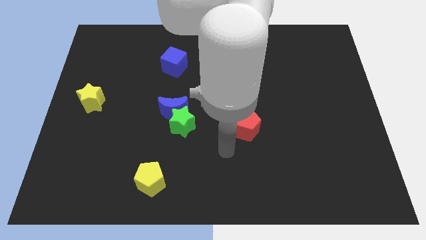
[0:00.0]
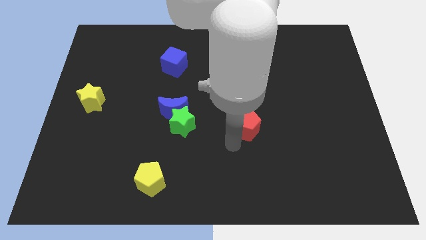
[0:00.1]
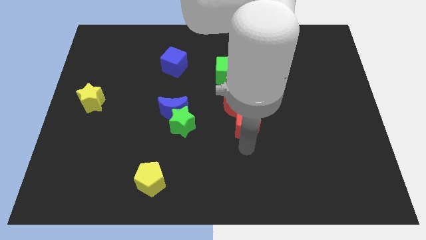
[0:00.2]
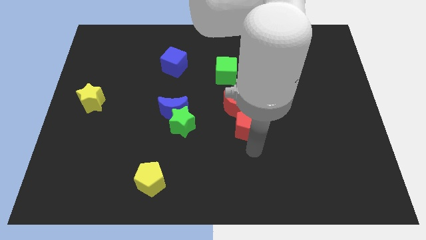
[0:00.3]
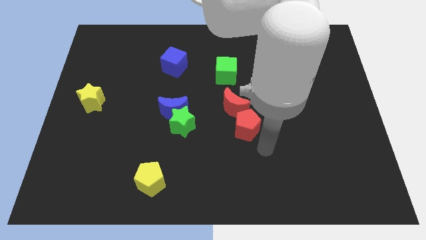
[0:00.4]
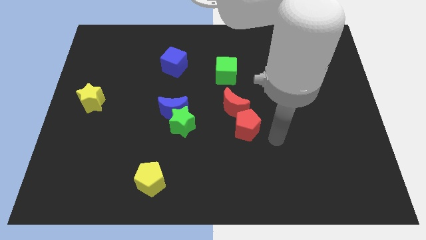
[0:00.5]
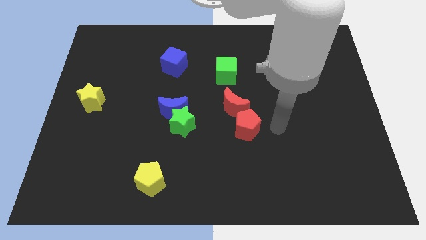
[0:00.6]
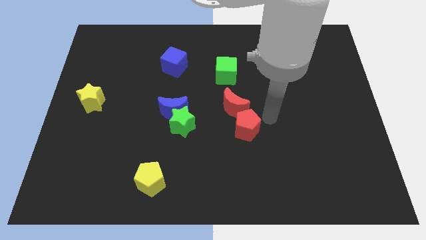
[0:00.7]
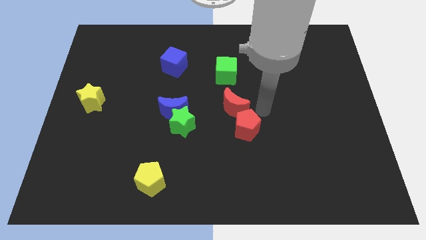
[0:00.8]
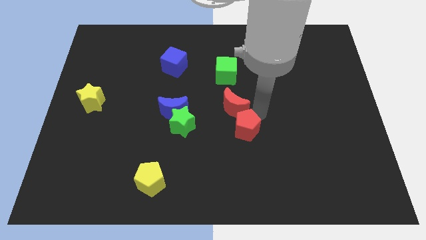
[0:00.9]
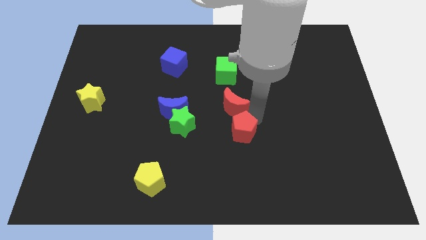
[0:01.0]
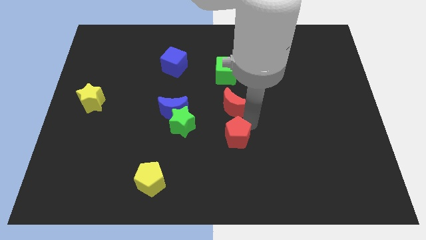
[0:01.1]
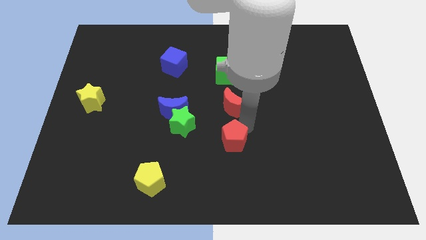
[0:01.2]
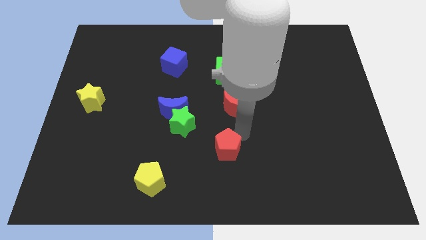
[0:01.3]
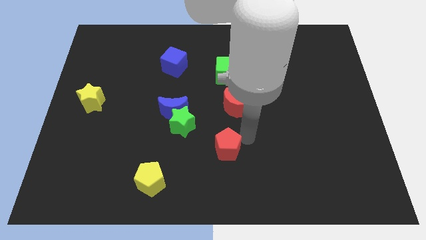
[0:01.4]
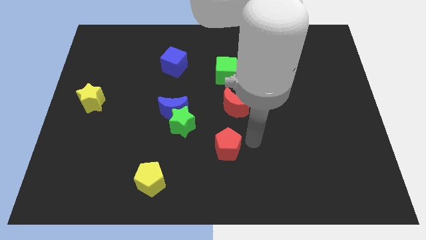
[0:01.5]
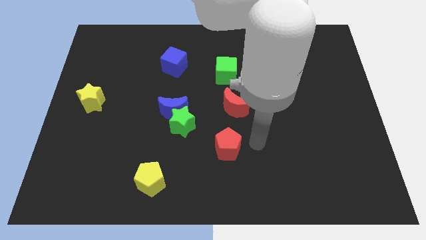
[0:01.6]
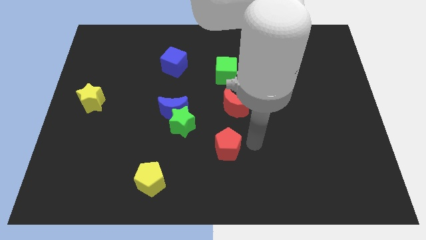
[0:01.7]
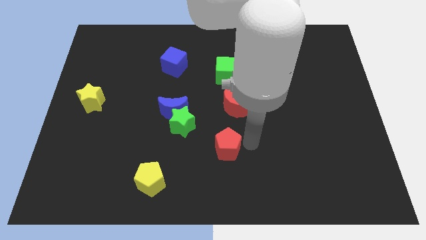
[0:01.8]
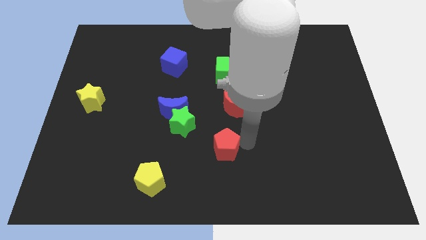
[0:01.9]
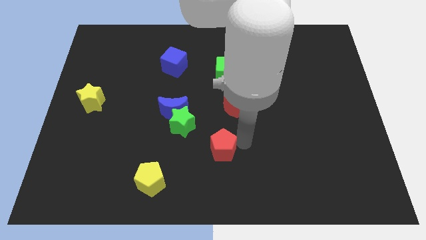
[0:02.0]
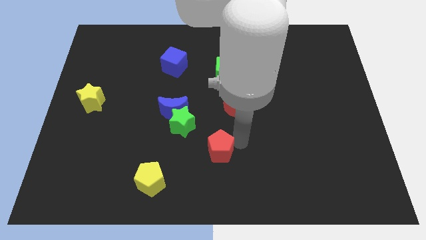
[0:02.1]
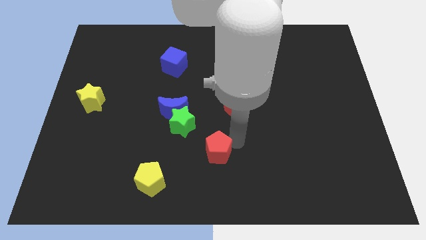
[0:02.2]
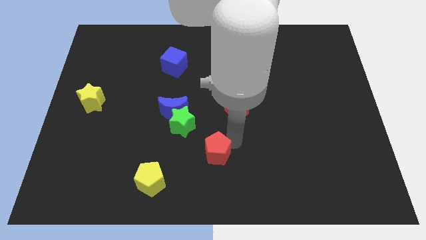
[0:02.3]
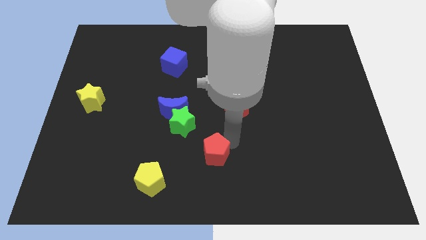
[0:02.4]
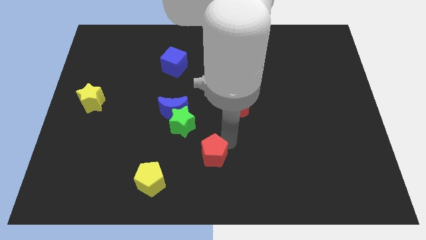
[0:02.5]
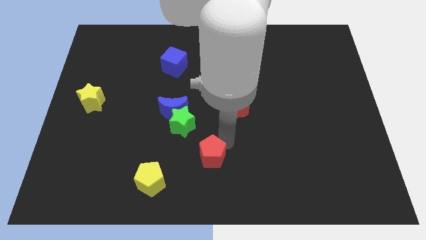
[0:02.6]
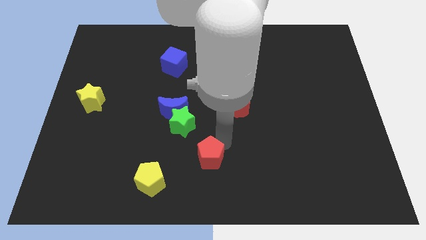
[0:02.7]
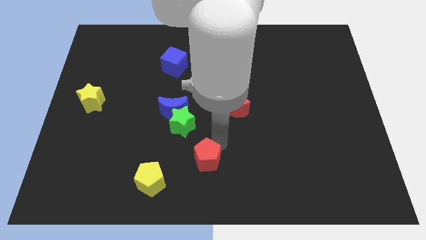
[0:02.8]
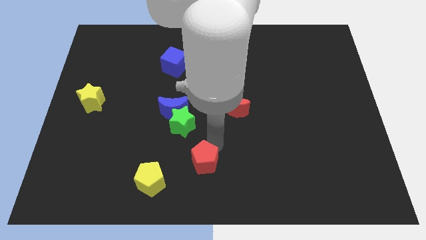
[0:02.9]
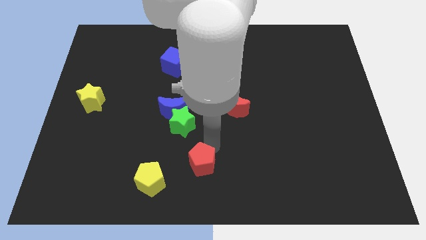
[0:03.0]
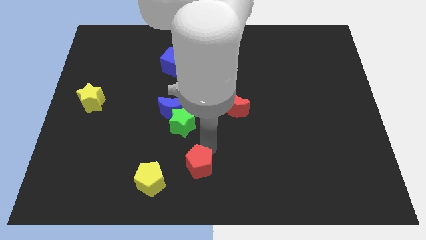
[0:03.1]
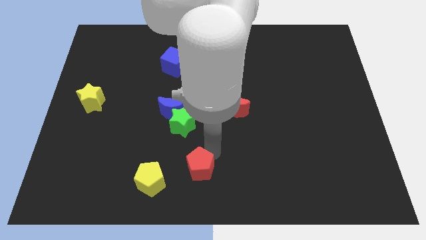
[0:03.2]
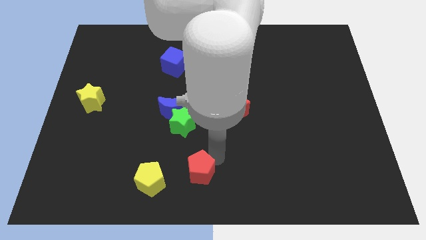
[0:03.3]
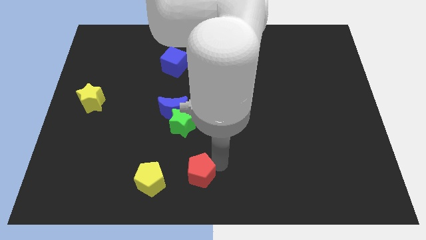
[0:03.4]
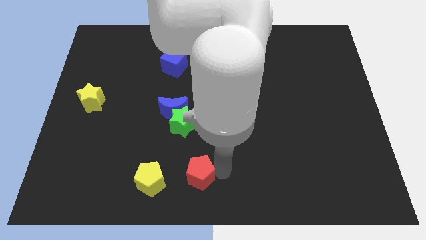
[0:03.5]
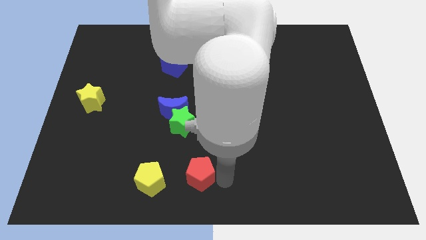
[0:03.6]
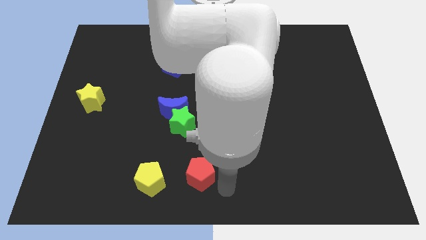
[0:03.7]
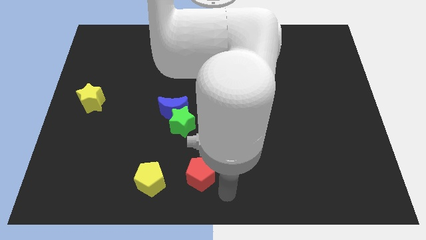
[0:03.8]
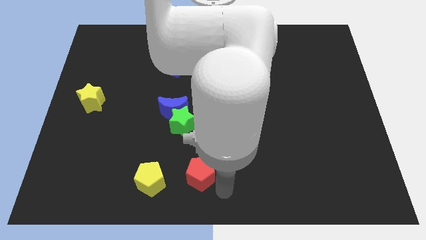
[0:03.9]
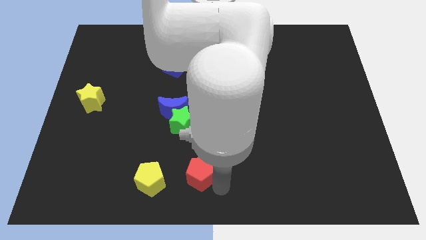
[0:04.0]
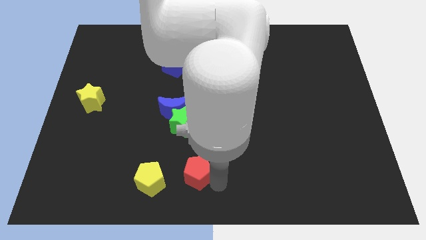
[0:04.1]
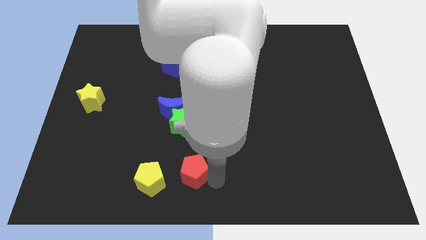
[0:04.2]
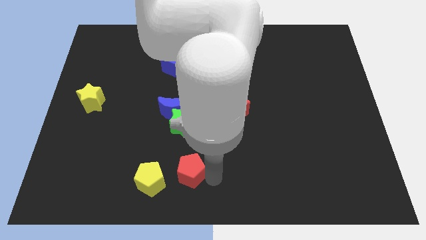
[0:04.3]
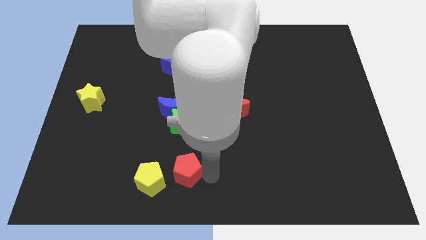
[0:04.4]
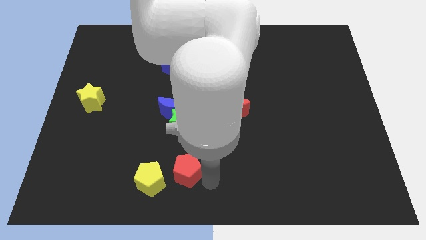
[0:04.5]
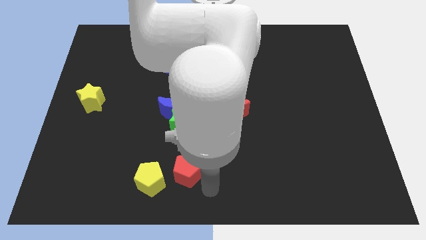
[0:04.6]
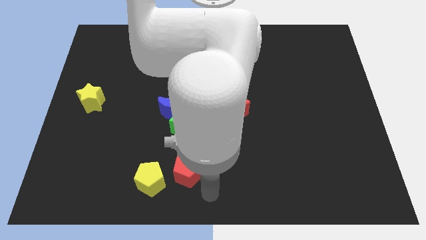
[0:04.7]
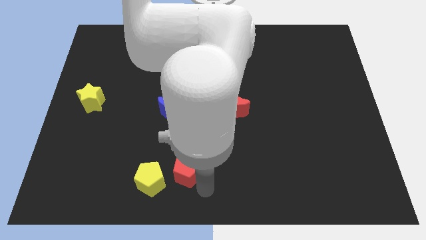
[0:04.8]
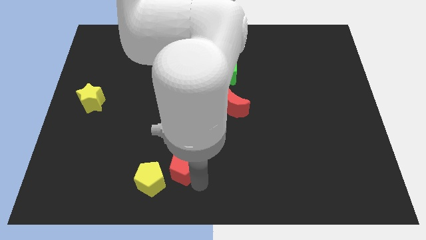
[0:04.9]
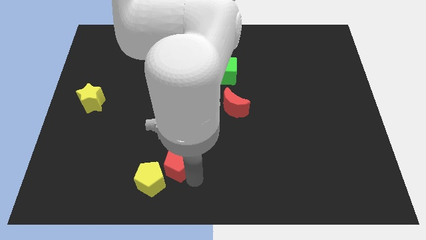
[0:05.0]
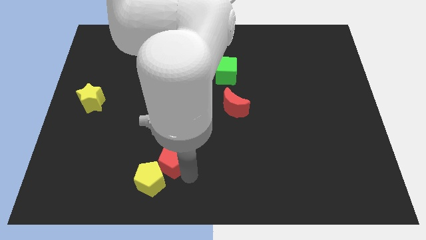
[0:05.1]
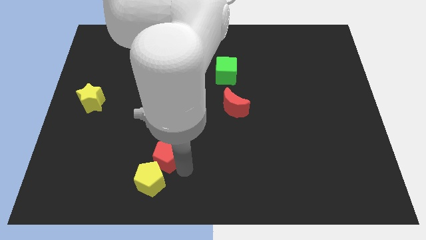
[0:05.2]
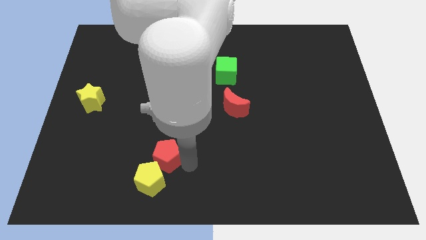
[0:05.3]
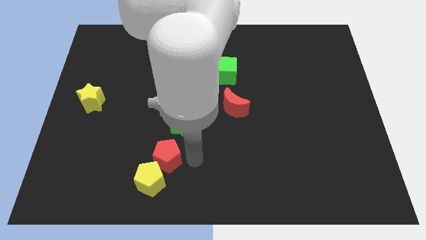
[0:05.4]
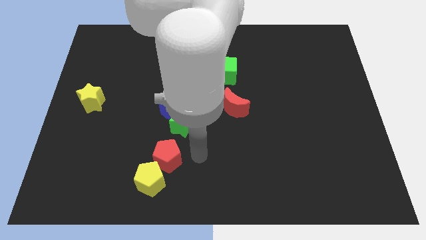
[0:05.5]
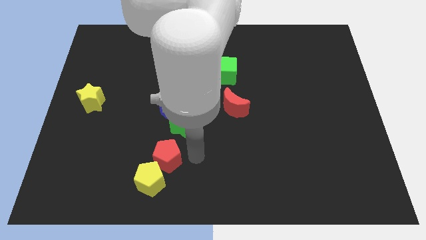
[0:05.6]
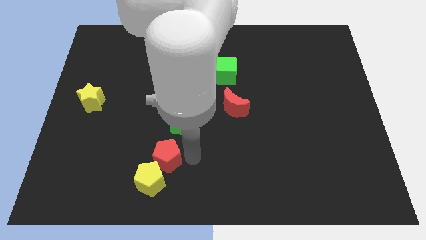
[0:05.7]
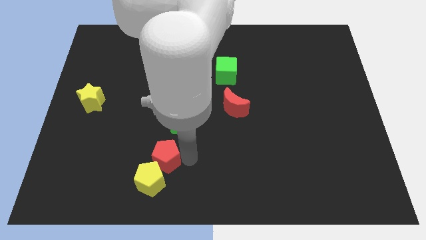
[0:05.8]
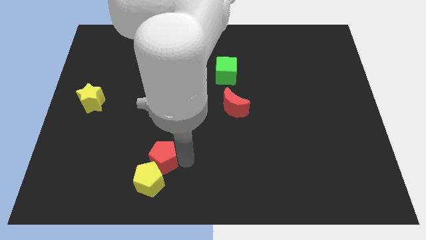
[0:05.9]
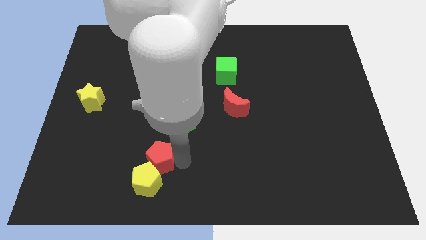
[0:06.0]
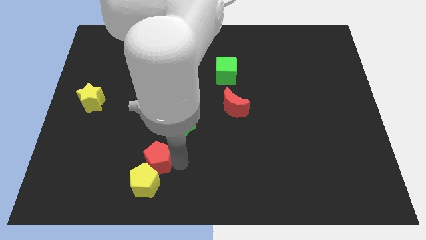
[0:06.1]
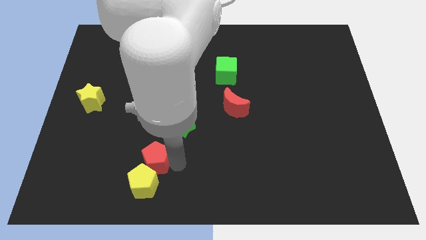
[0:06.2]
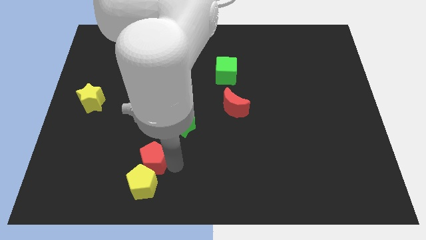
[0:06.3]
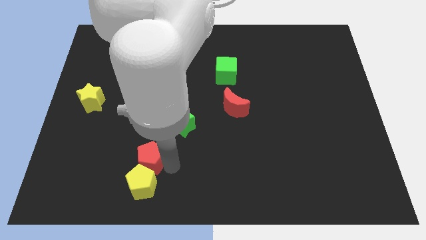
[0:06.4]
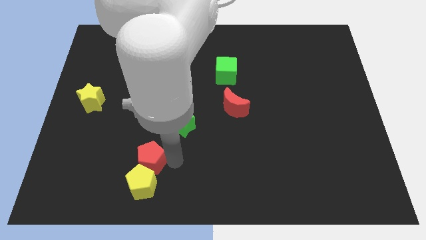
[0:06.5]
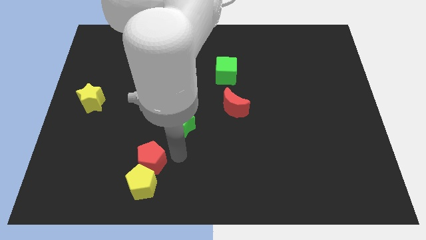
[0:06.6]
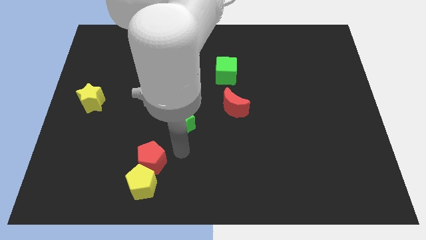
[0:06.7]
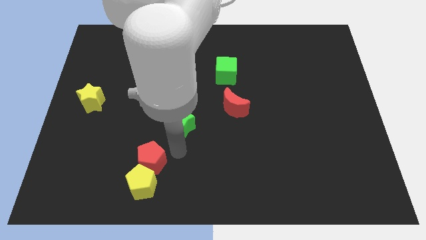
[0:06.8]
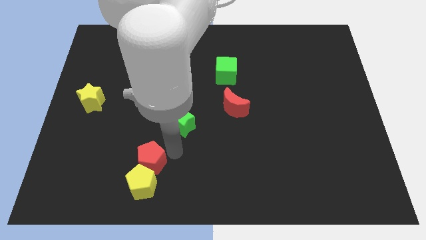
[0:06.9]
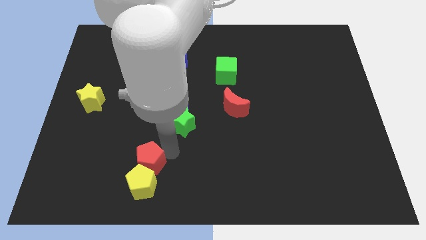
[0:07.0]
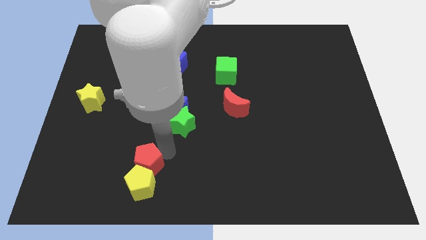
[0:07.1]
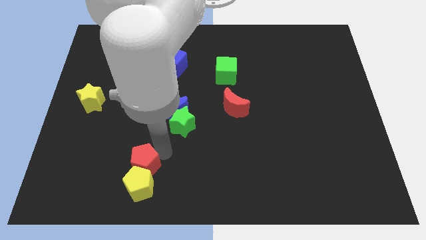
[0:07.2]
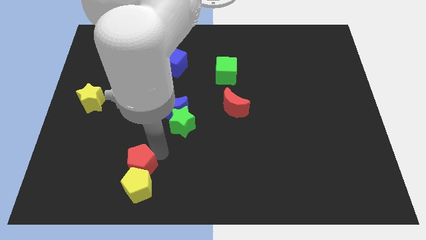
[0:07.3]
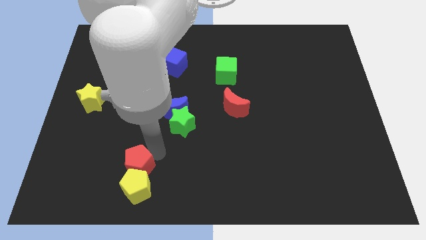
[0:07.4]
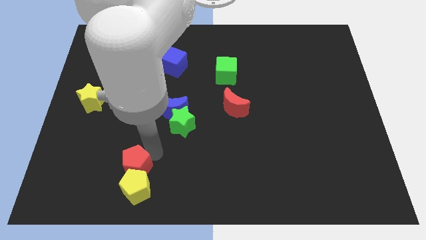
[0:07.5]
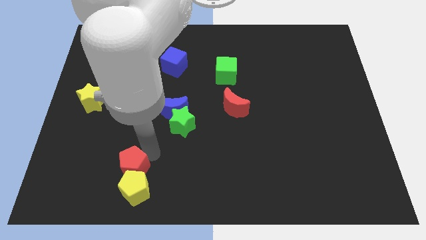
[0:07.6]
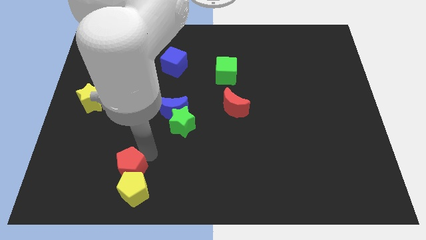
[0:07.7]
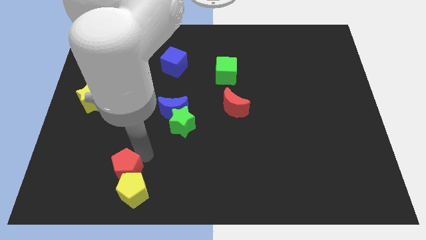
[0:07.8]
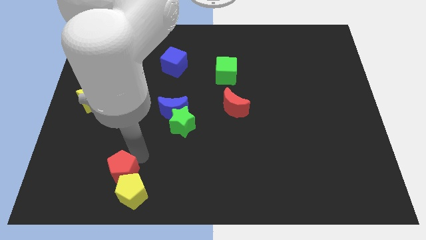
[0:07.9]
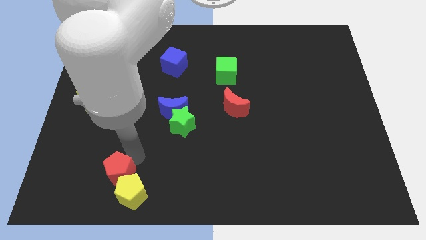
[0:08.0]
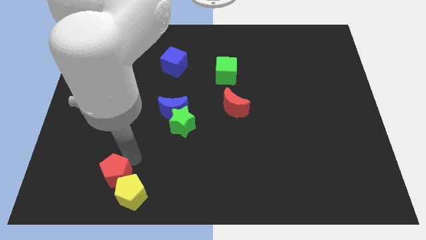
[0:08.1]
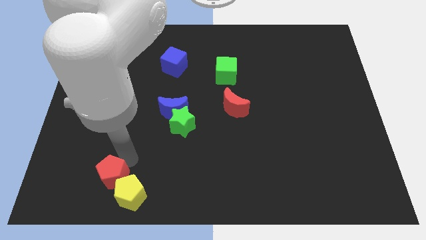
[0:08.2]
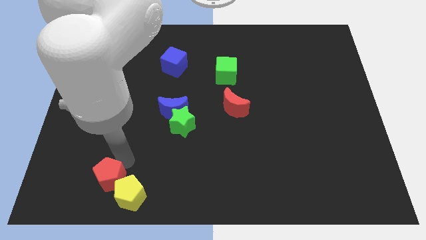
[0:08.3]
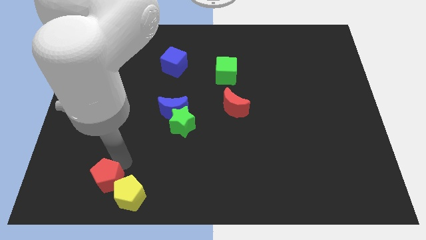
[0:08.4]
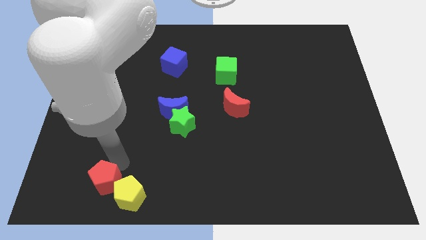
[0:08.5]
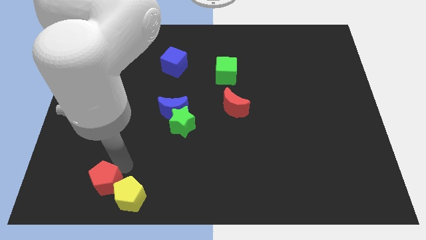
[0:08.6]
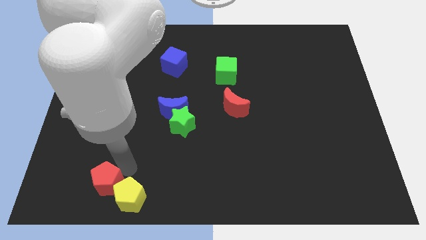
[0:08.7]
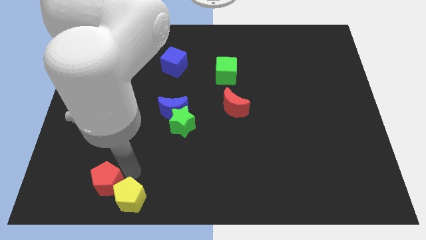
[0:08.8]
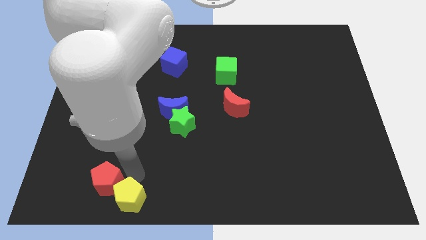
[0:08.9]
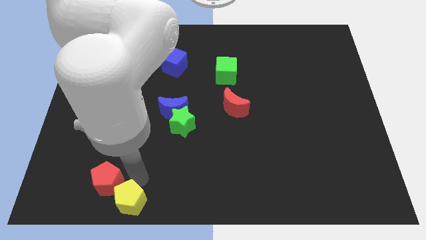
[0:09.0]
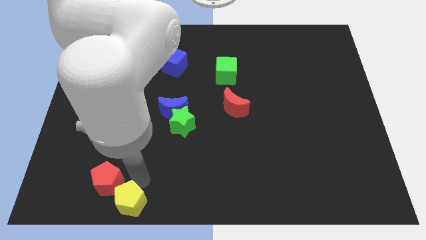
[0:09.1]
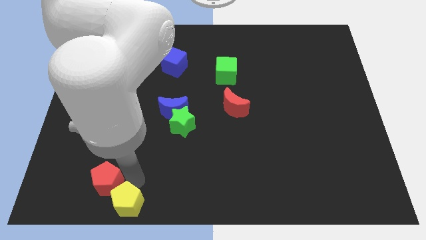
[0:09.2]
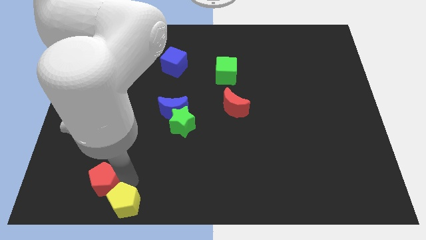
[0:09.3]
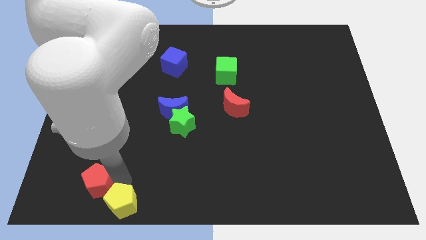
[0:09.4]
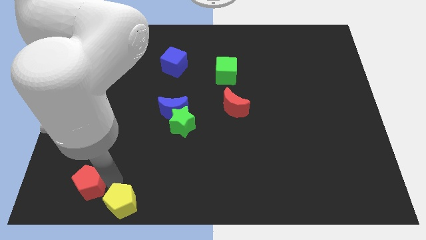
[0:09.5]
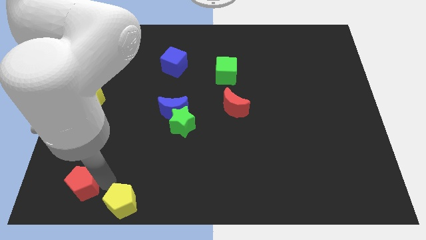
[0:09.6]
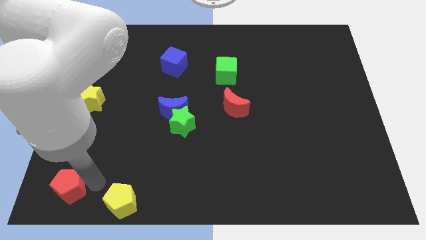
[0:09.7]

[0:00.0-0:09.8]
put the red pentagon to the bottom left corner
